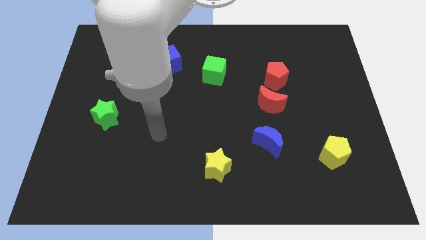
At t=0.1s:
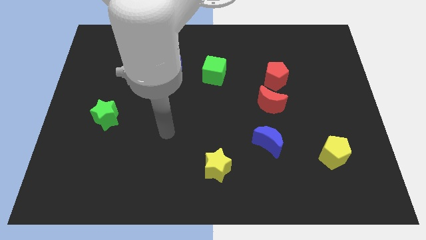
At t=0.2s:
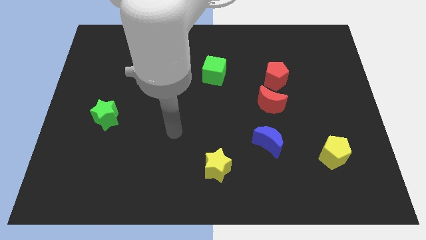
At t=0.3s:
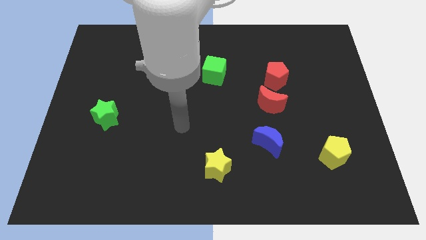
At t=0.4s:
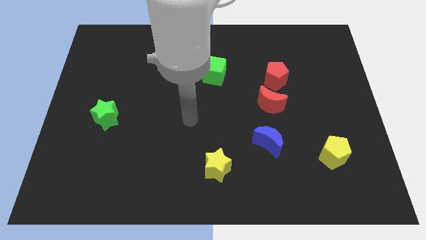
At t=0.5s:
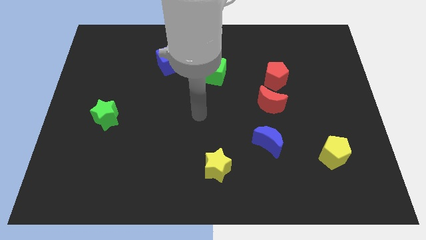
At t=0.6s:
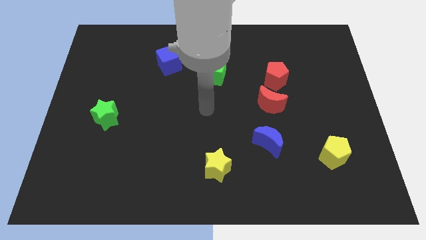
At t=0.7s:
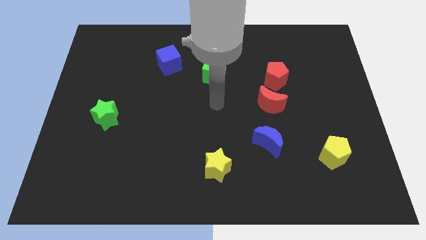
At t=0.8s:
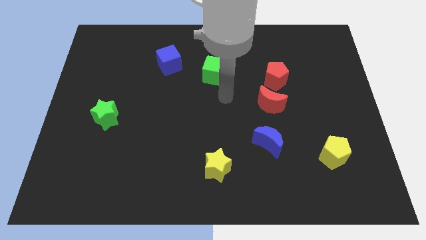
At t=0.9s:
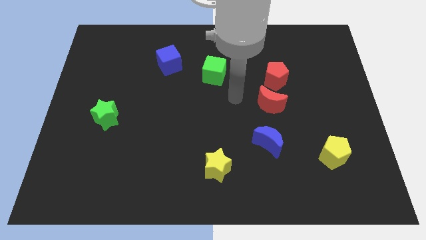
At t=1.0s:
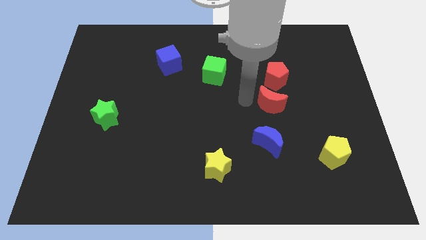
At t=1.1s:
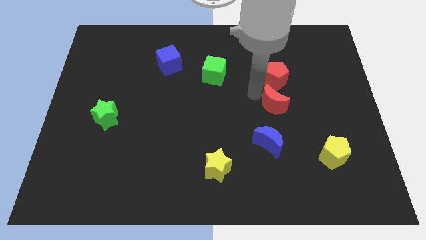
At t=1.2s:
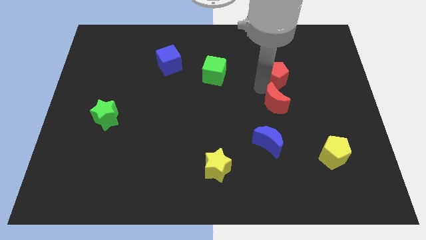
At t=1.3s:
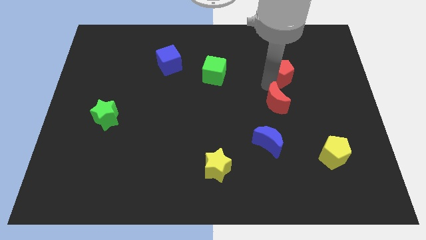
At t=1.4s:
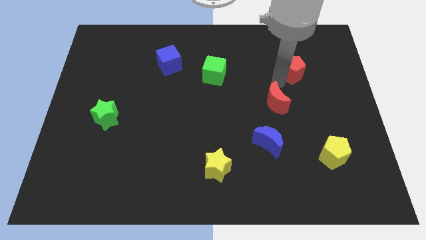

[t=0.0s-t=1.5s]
move the red moon away from the red pentagon

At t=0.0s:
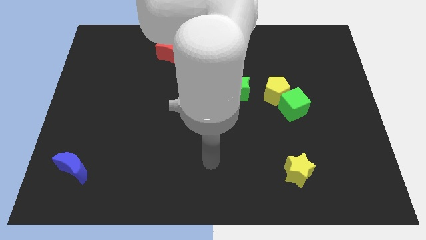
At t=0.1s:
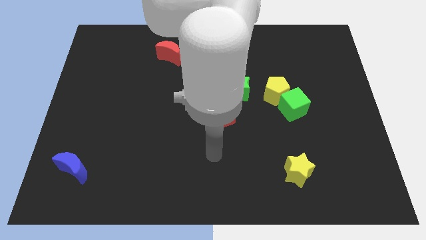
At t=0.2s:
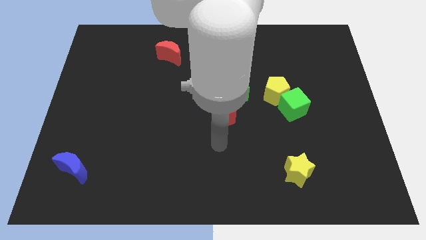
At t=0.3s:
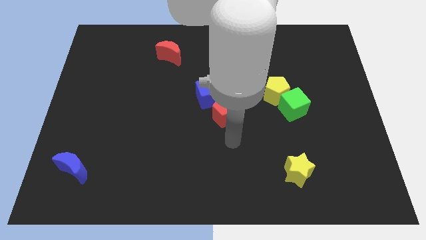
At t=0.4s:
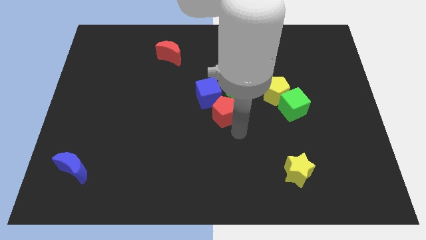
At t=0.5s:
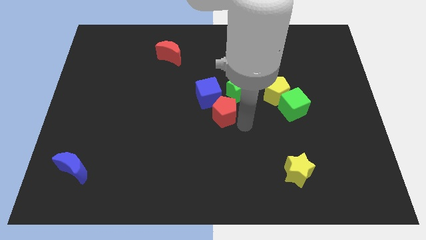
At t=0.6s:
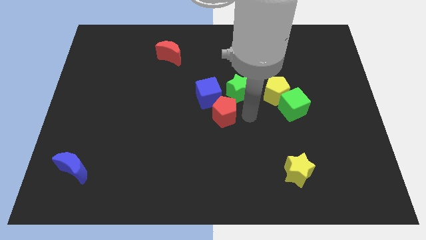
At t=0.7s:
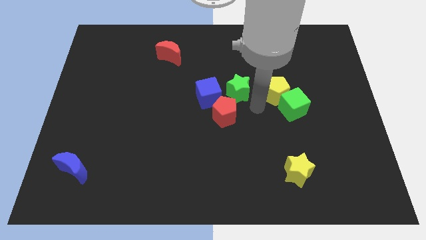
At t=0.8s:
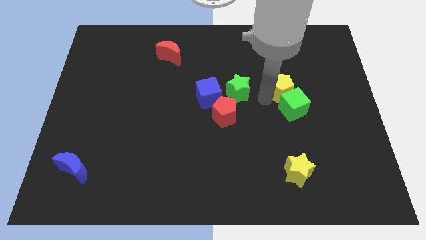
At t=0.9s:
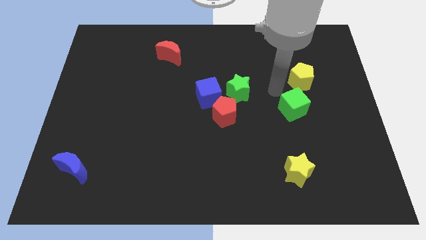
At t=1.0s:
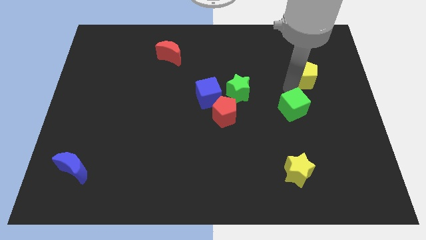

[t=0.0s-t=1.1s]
move the green cube away from the yellow pentagon

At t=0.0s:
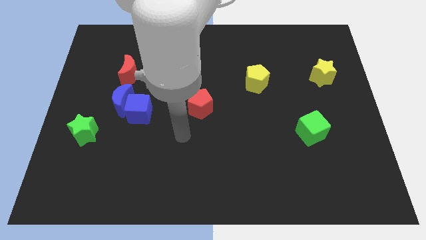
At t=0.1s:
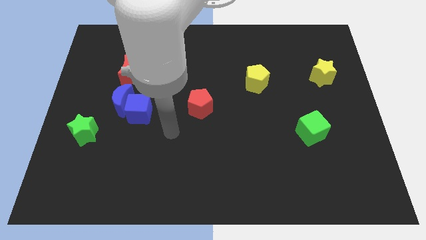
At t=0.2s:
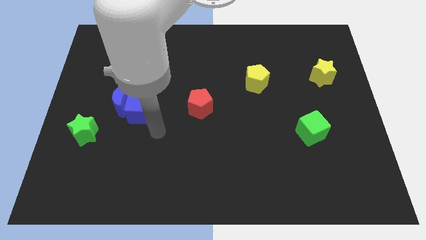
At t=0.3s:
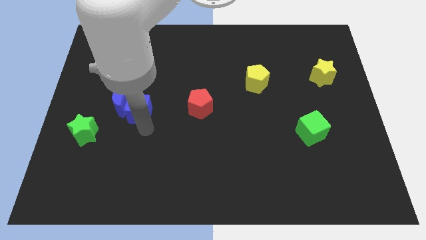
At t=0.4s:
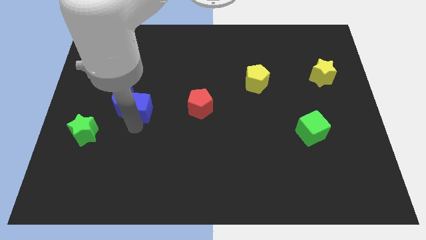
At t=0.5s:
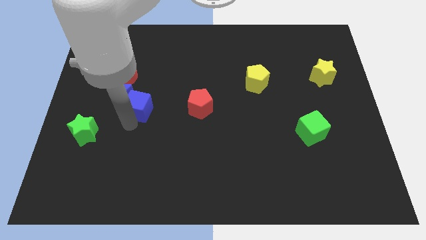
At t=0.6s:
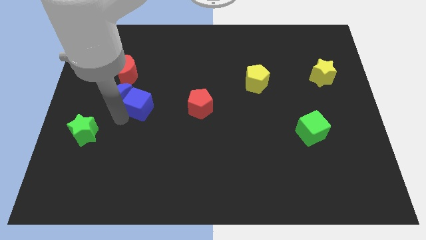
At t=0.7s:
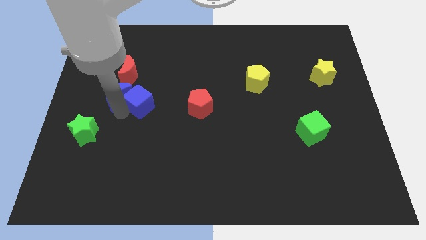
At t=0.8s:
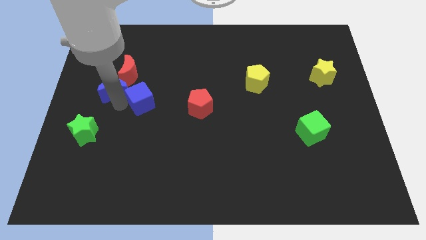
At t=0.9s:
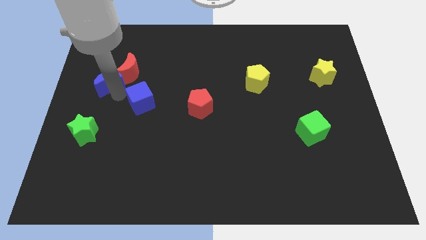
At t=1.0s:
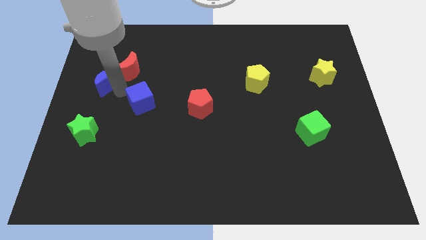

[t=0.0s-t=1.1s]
move the blue cube away from the blue moon

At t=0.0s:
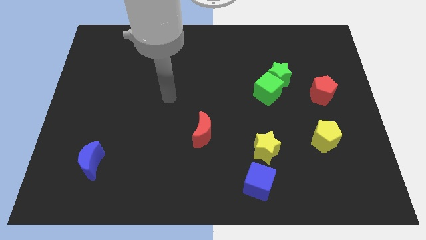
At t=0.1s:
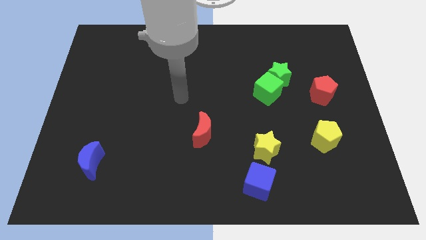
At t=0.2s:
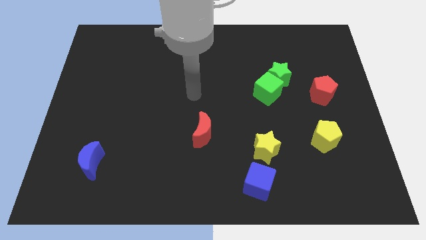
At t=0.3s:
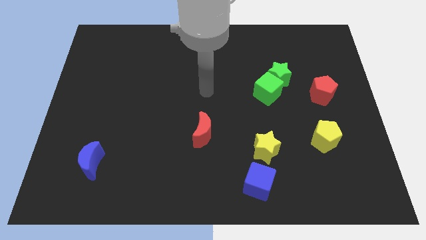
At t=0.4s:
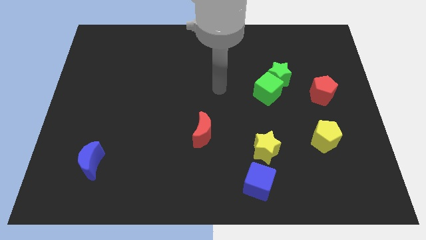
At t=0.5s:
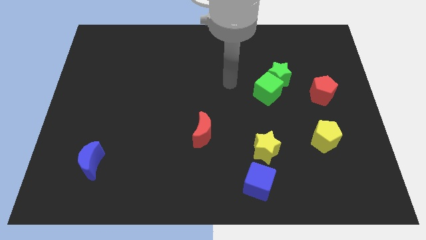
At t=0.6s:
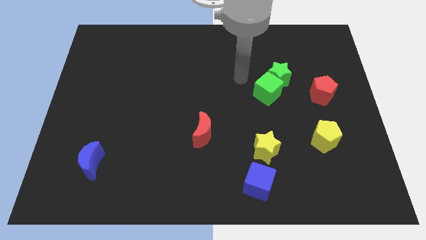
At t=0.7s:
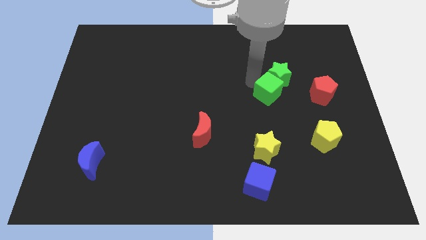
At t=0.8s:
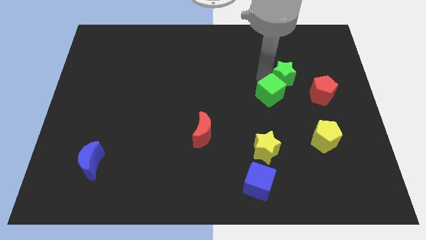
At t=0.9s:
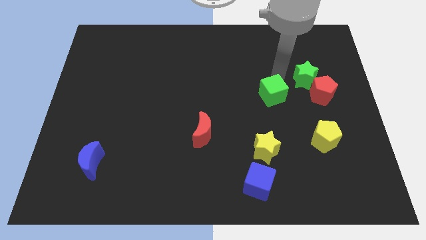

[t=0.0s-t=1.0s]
pull the green cube apart from the green star

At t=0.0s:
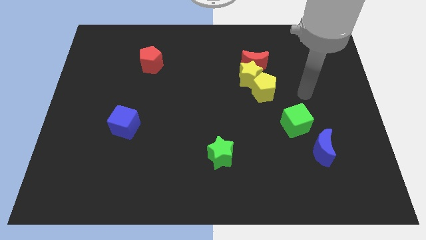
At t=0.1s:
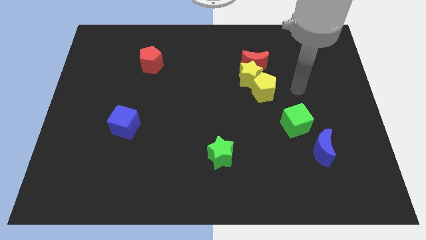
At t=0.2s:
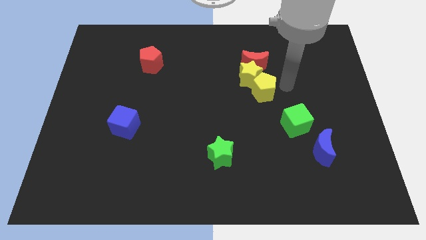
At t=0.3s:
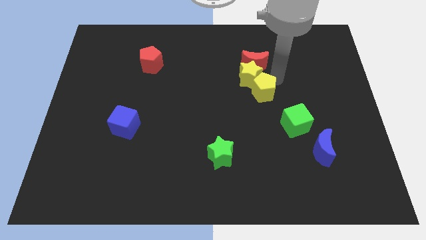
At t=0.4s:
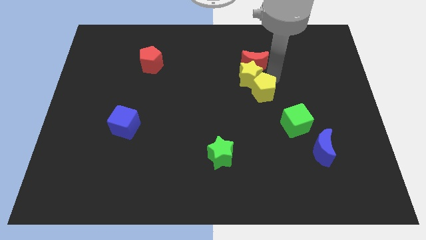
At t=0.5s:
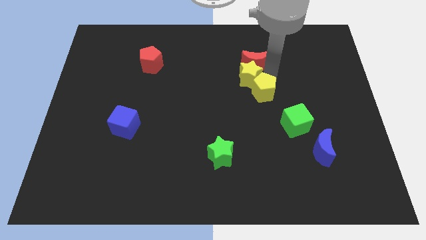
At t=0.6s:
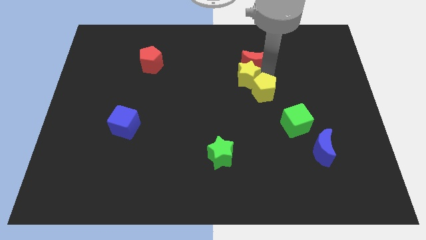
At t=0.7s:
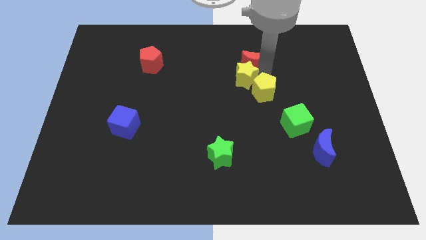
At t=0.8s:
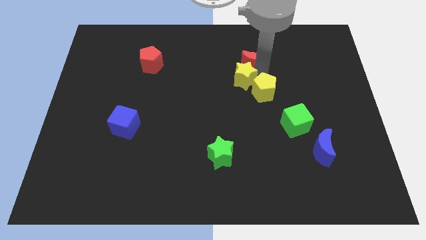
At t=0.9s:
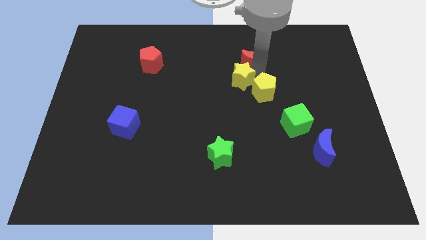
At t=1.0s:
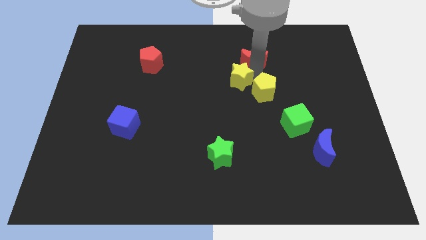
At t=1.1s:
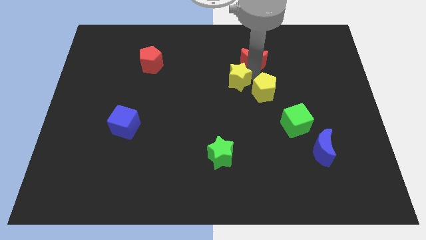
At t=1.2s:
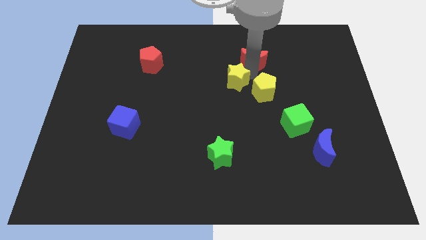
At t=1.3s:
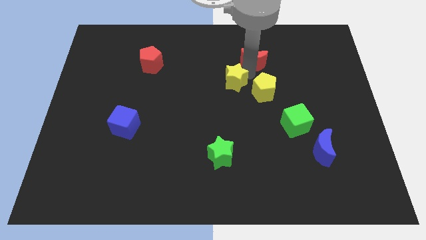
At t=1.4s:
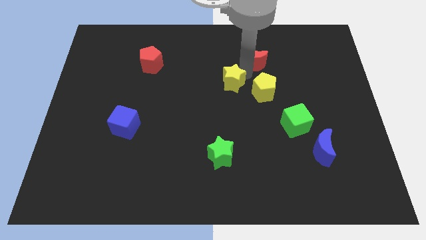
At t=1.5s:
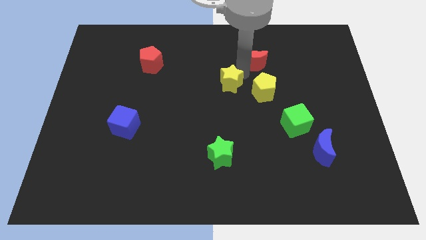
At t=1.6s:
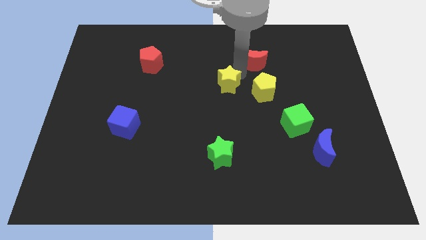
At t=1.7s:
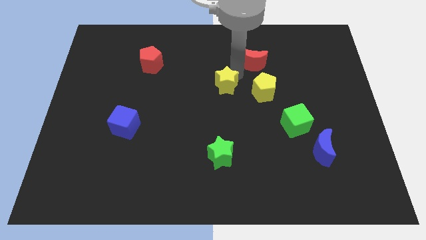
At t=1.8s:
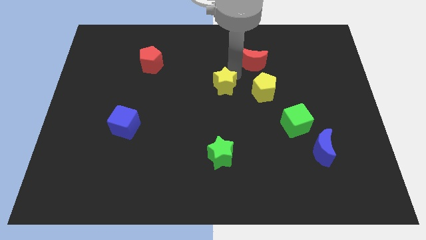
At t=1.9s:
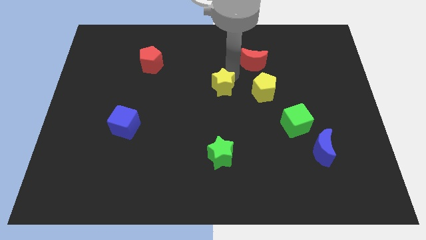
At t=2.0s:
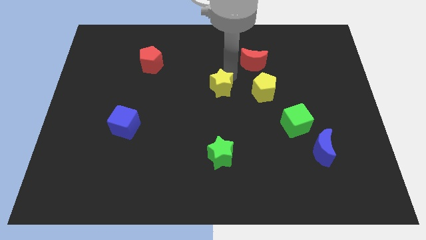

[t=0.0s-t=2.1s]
pull the yellow star apart from the red moon and yellow pentagon

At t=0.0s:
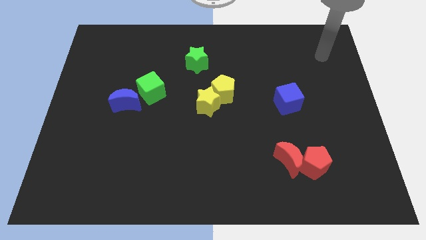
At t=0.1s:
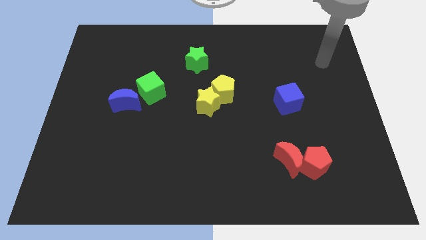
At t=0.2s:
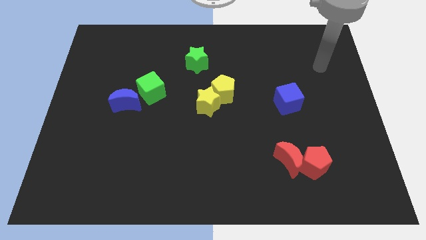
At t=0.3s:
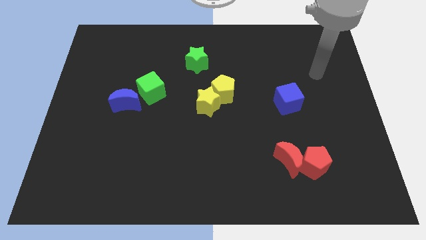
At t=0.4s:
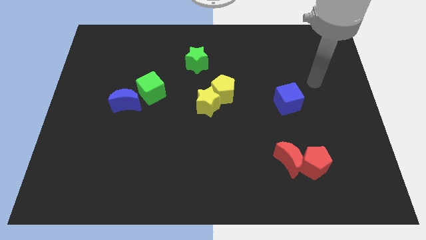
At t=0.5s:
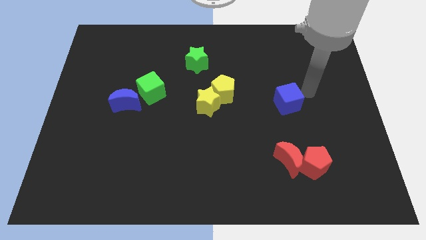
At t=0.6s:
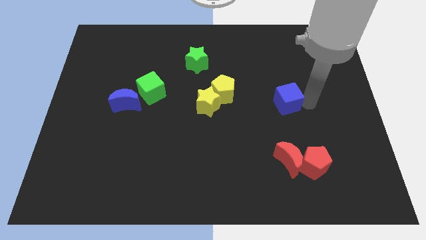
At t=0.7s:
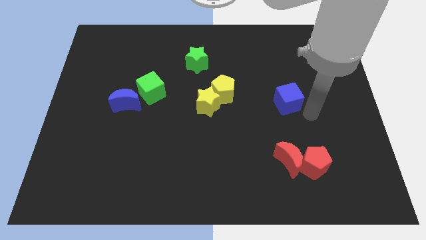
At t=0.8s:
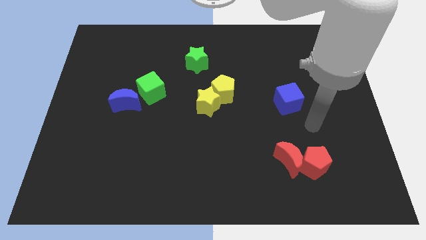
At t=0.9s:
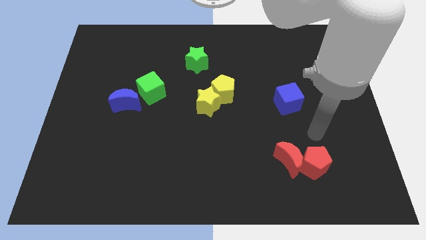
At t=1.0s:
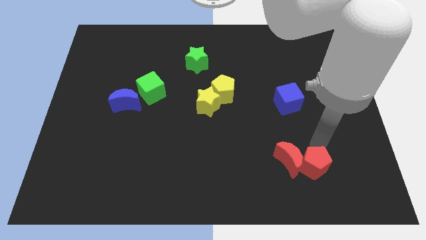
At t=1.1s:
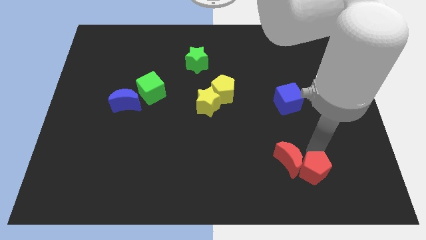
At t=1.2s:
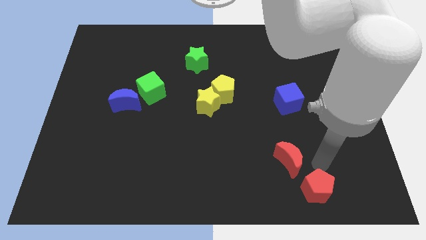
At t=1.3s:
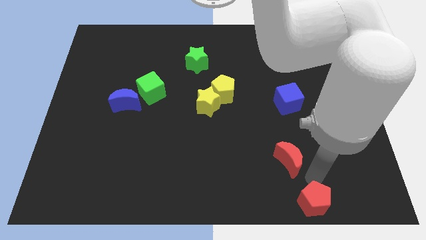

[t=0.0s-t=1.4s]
separate the red moon from the red pentagon

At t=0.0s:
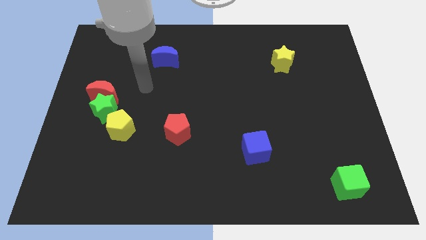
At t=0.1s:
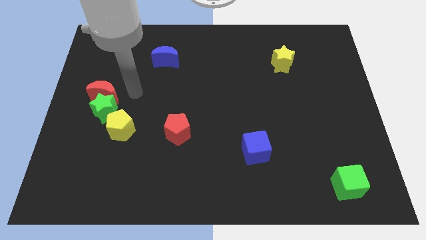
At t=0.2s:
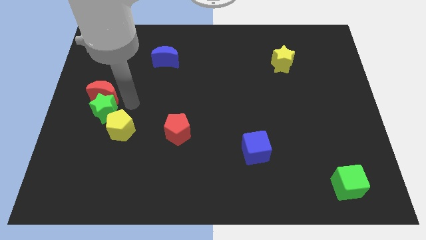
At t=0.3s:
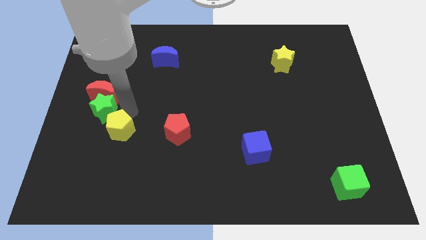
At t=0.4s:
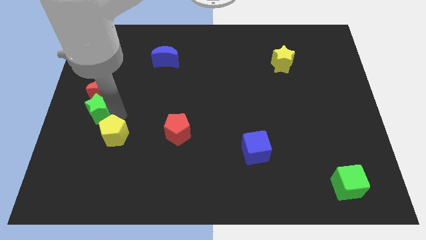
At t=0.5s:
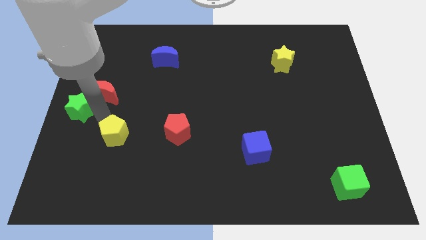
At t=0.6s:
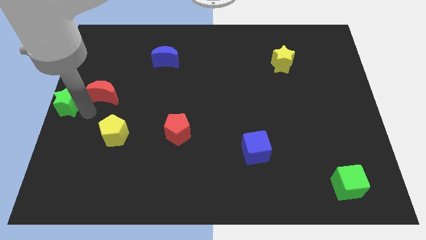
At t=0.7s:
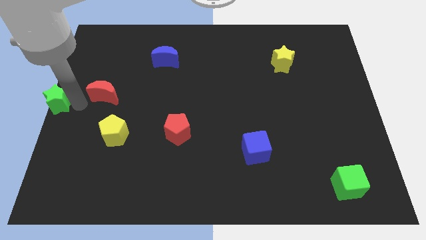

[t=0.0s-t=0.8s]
separate the red moon from the green star

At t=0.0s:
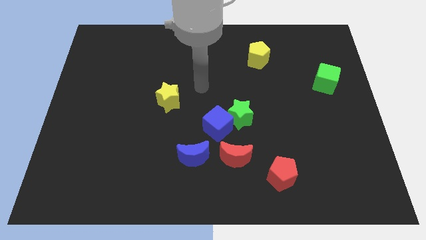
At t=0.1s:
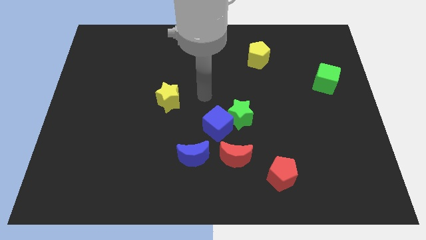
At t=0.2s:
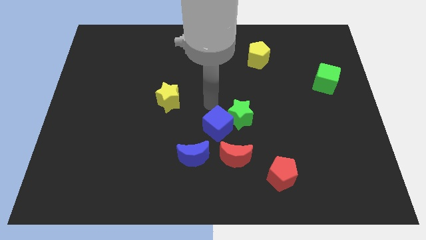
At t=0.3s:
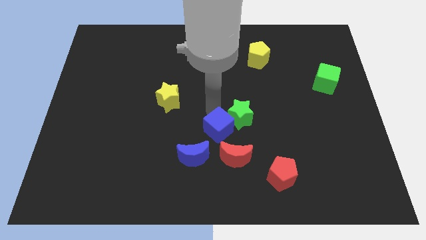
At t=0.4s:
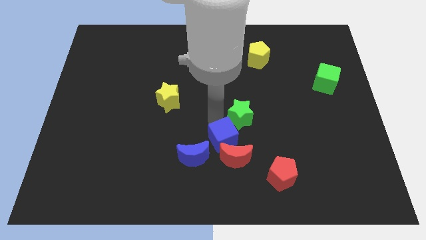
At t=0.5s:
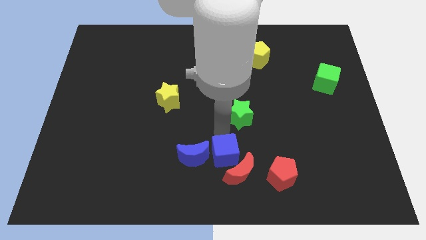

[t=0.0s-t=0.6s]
separate the green star from the blue cube
